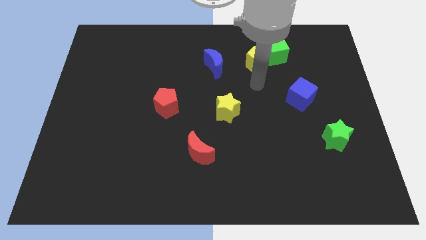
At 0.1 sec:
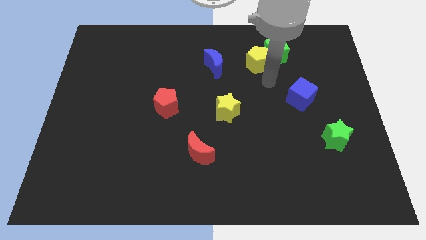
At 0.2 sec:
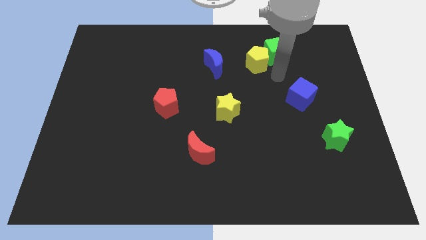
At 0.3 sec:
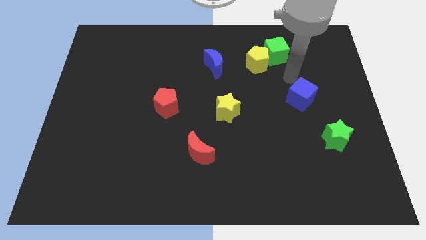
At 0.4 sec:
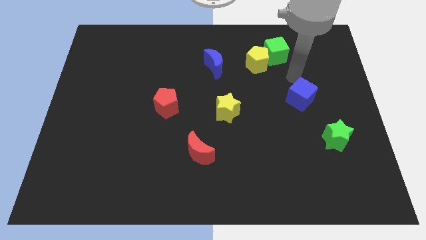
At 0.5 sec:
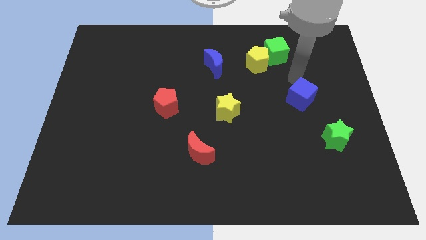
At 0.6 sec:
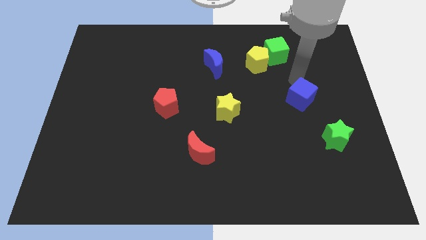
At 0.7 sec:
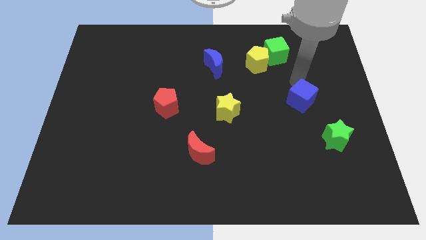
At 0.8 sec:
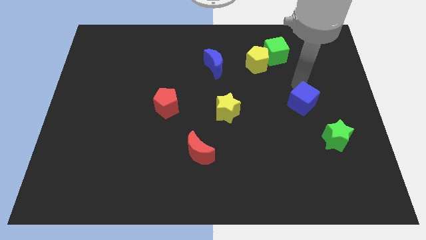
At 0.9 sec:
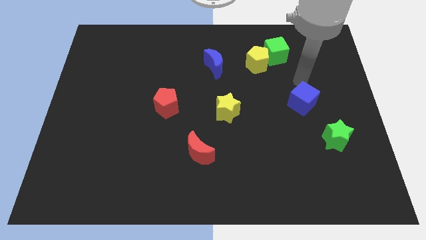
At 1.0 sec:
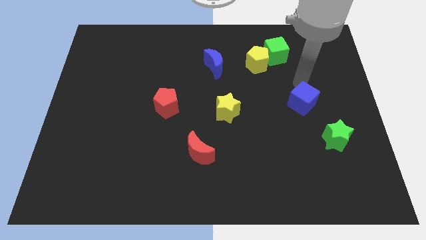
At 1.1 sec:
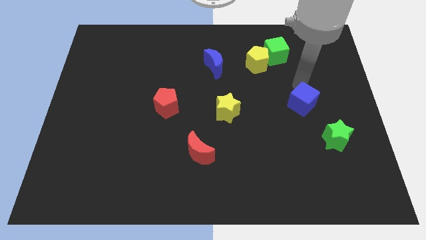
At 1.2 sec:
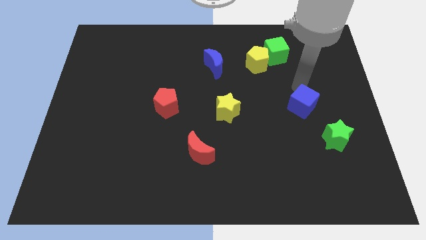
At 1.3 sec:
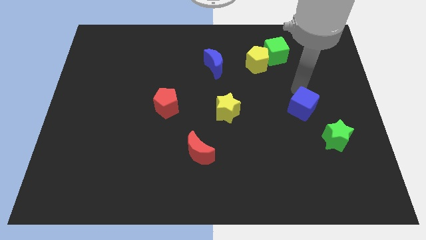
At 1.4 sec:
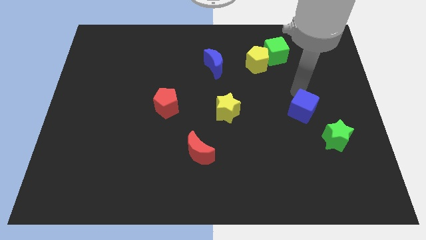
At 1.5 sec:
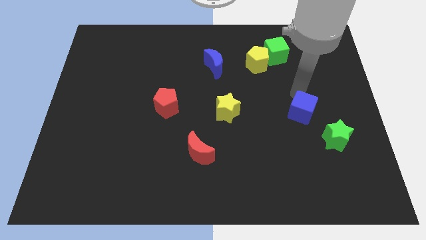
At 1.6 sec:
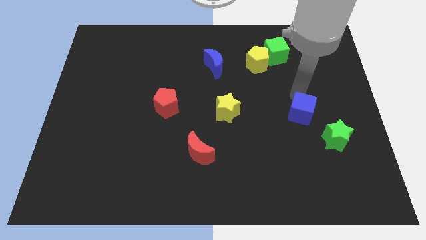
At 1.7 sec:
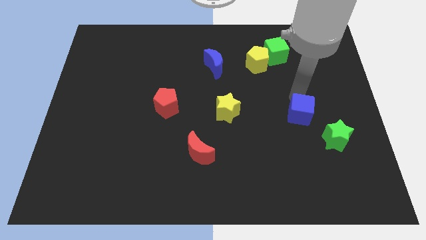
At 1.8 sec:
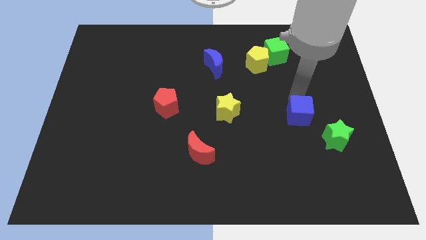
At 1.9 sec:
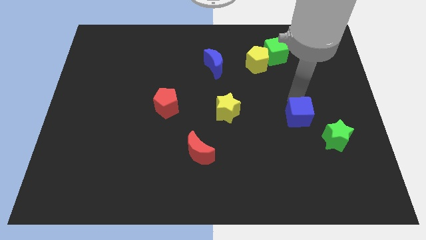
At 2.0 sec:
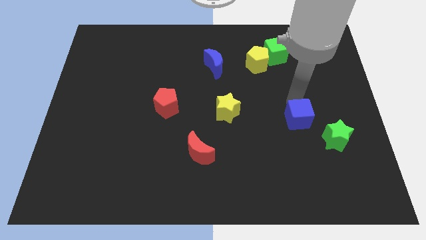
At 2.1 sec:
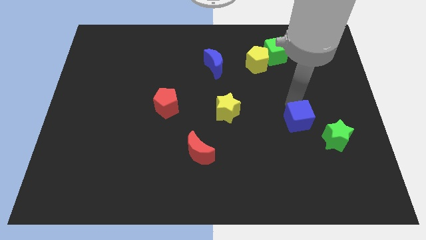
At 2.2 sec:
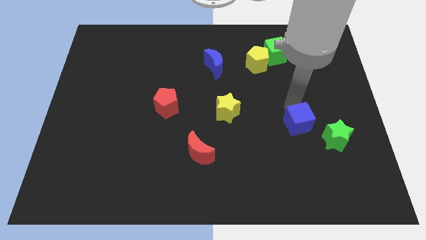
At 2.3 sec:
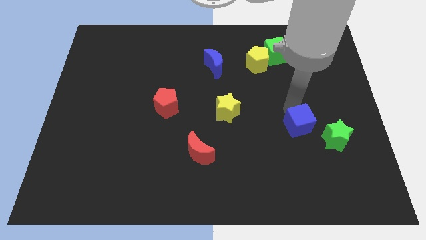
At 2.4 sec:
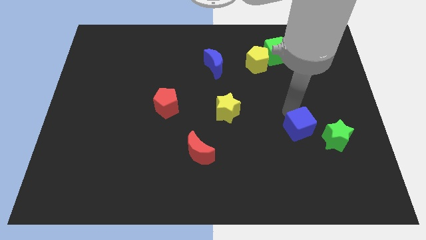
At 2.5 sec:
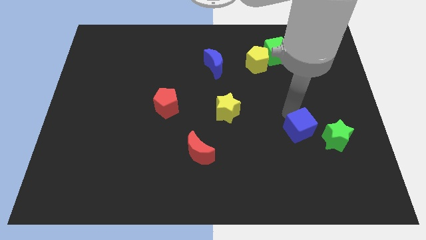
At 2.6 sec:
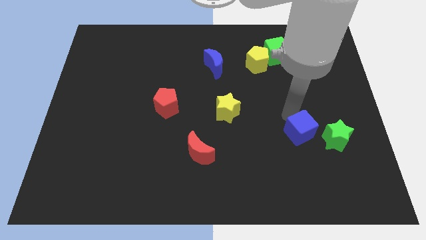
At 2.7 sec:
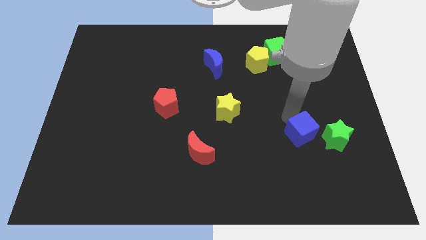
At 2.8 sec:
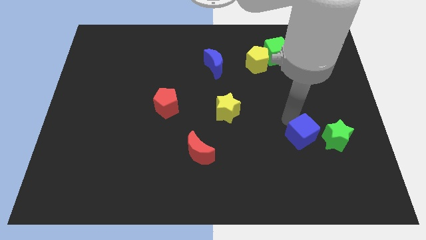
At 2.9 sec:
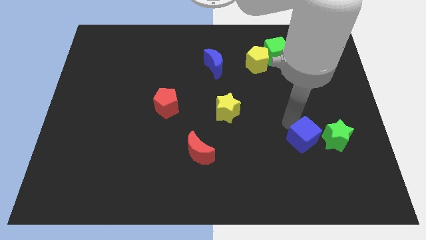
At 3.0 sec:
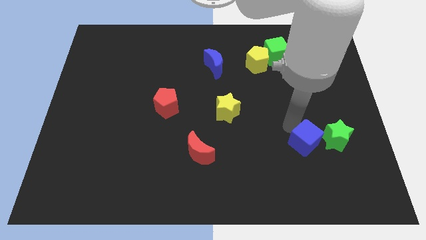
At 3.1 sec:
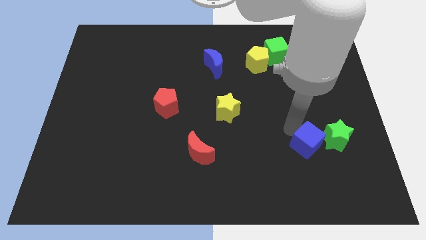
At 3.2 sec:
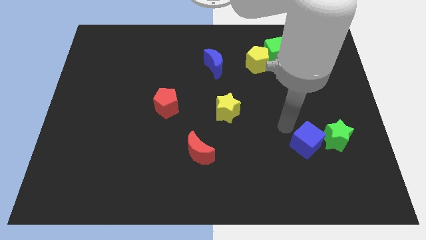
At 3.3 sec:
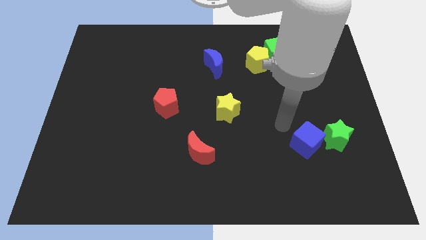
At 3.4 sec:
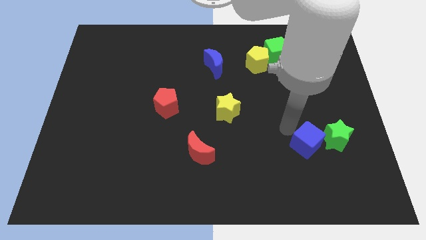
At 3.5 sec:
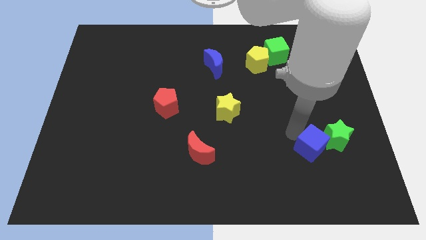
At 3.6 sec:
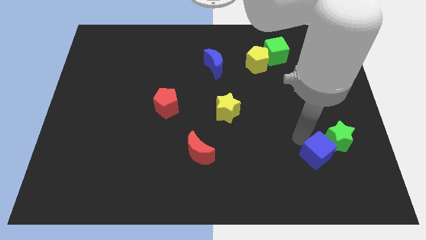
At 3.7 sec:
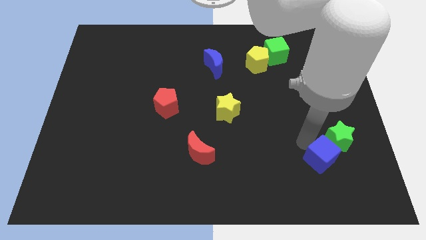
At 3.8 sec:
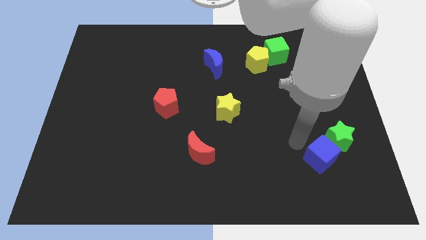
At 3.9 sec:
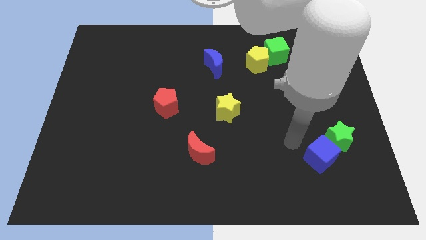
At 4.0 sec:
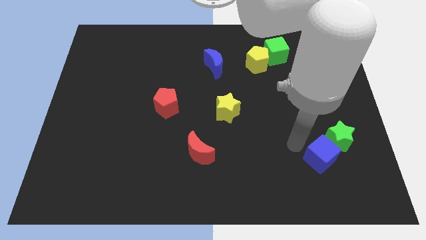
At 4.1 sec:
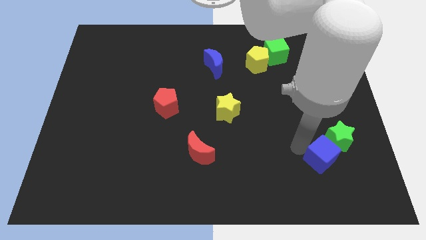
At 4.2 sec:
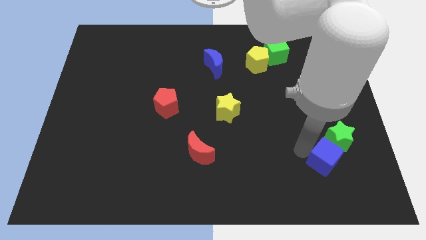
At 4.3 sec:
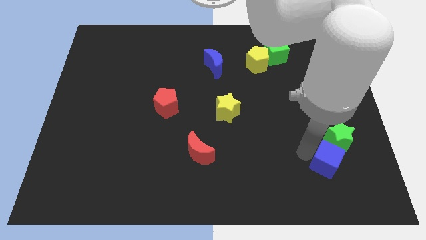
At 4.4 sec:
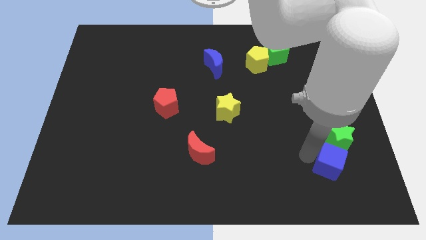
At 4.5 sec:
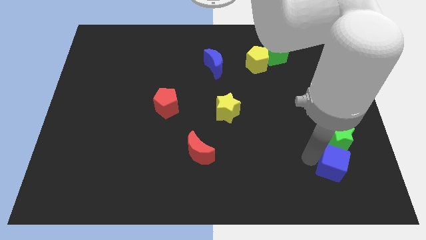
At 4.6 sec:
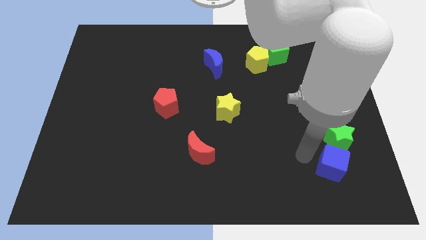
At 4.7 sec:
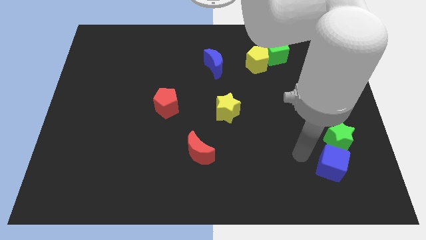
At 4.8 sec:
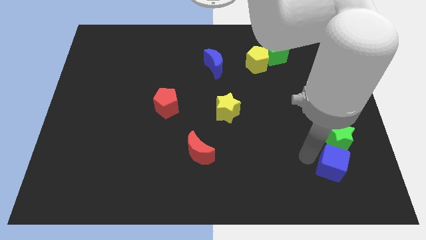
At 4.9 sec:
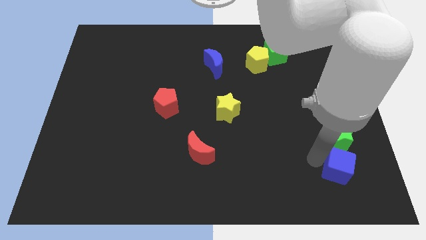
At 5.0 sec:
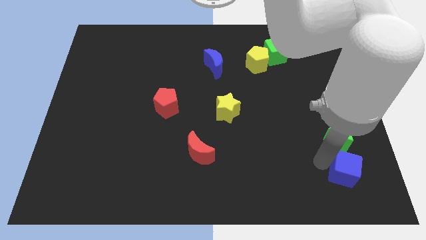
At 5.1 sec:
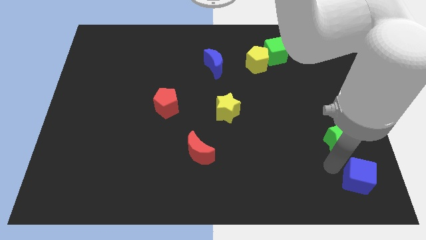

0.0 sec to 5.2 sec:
put the blue cube to the bottom right corner

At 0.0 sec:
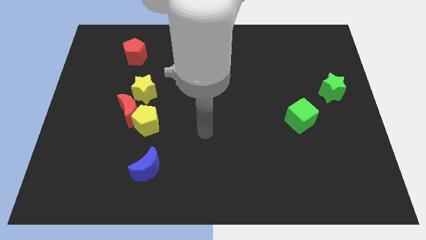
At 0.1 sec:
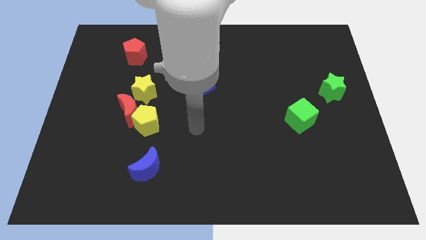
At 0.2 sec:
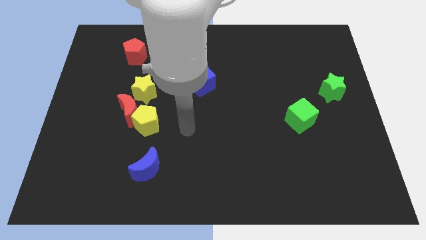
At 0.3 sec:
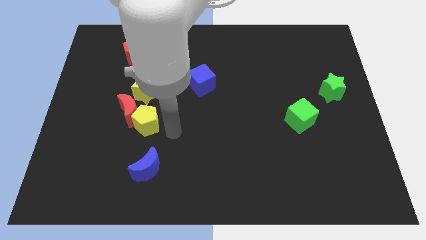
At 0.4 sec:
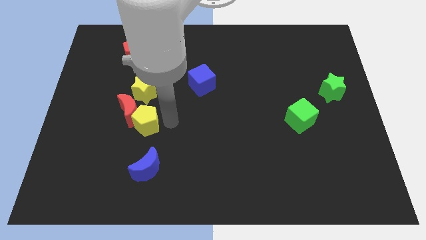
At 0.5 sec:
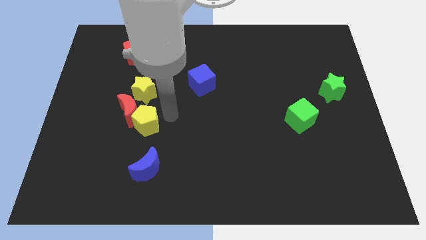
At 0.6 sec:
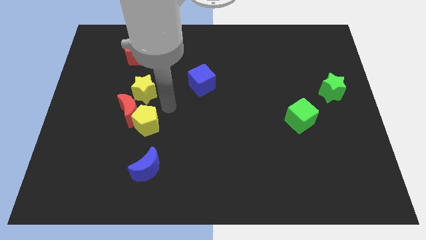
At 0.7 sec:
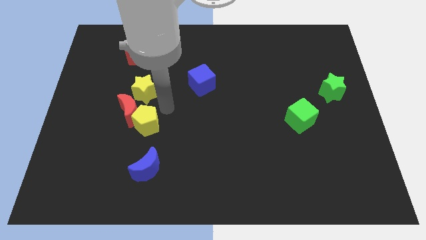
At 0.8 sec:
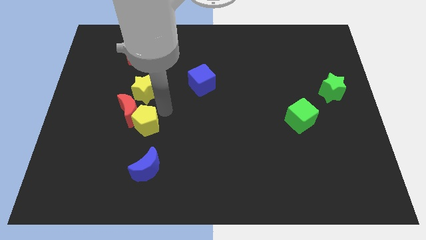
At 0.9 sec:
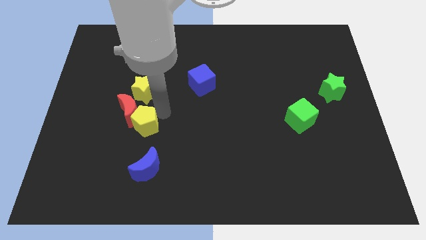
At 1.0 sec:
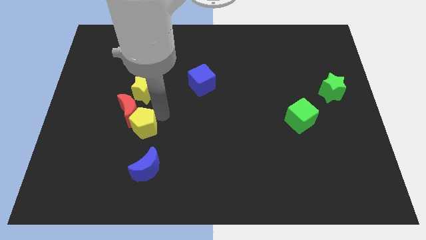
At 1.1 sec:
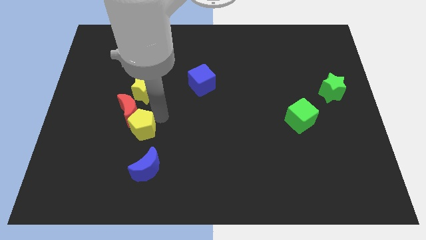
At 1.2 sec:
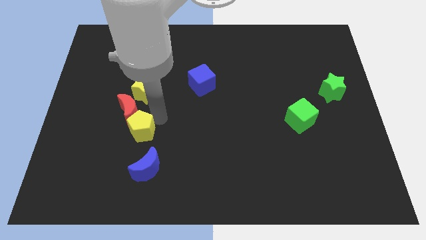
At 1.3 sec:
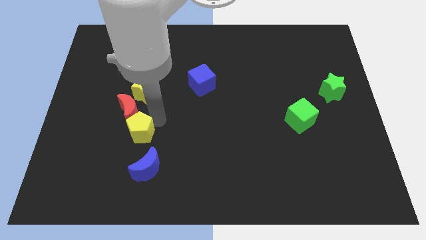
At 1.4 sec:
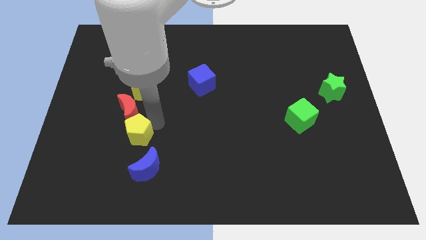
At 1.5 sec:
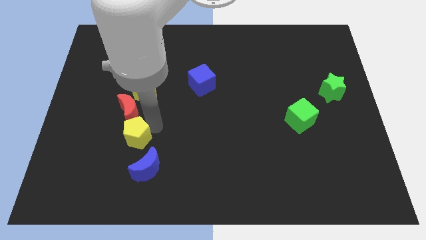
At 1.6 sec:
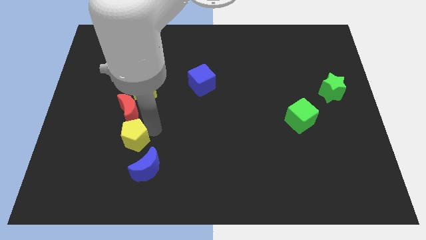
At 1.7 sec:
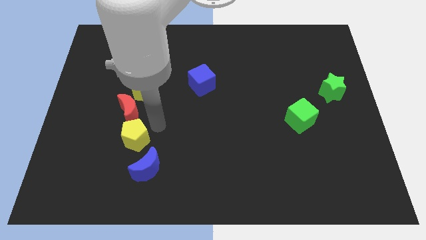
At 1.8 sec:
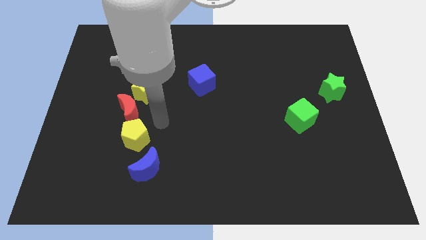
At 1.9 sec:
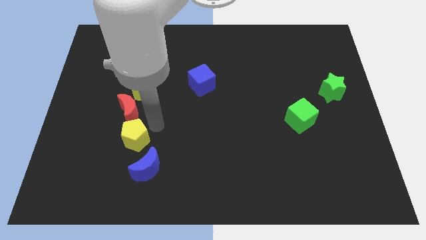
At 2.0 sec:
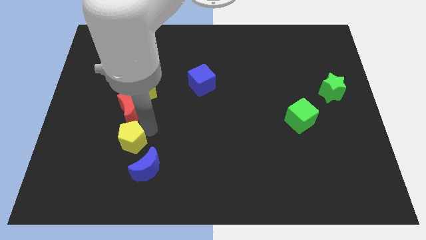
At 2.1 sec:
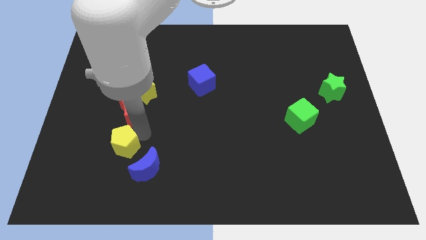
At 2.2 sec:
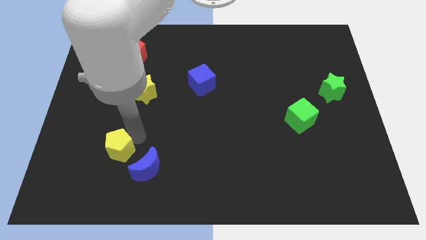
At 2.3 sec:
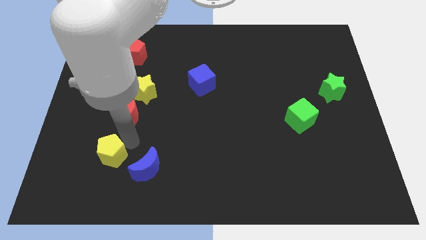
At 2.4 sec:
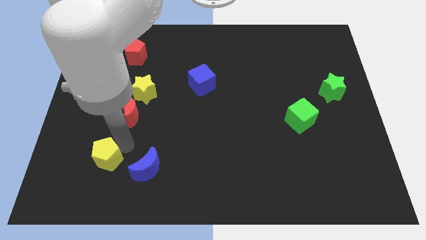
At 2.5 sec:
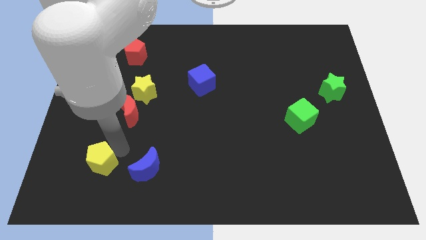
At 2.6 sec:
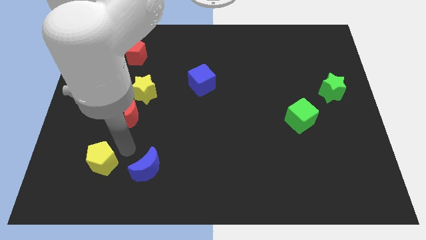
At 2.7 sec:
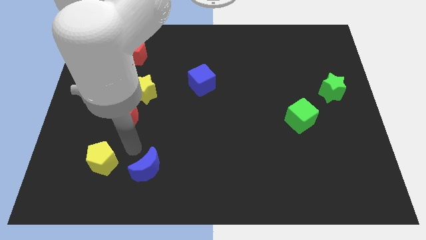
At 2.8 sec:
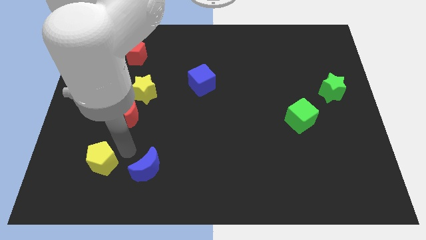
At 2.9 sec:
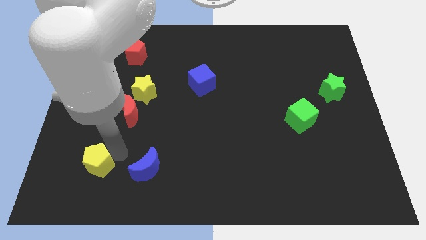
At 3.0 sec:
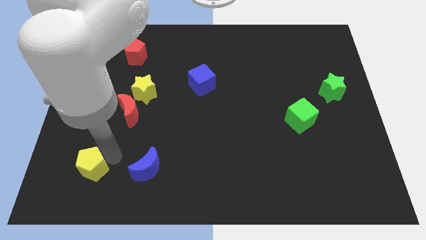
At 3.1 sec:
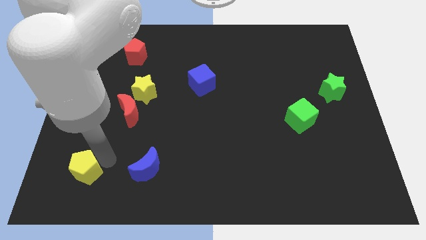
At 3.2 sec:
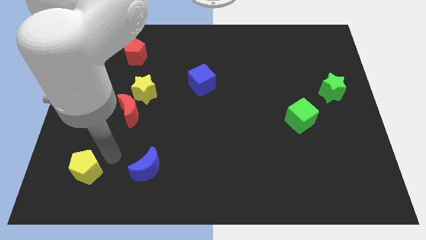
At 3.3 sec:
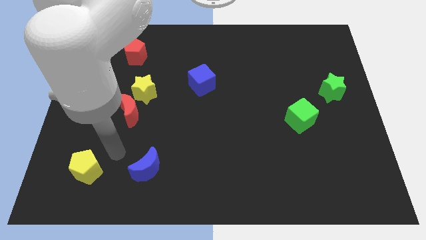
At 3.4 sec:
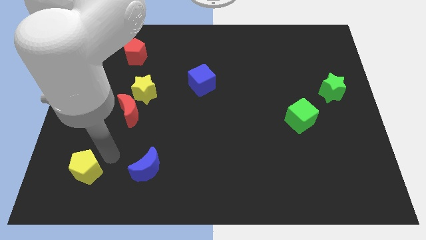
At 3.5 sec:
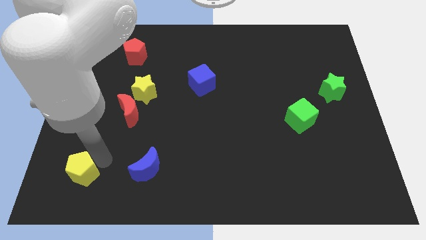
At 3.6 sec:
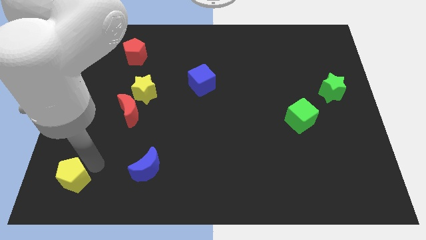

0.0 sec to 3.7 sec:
move the yellow pentagon to the bottom left of the board
